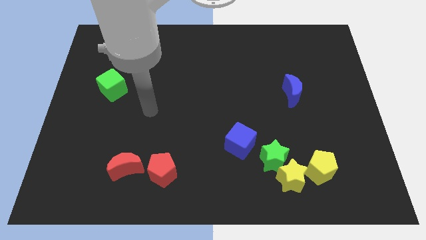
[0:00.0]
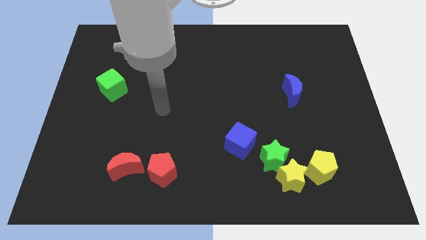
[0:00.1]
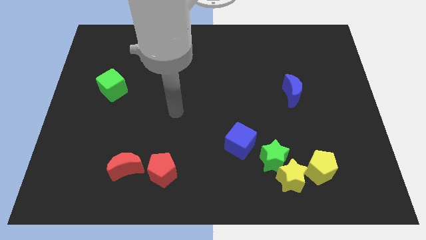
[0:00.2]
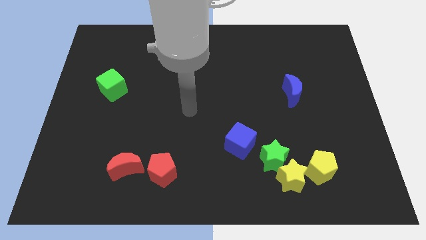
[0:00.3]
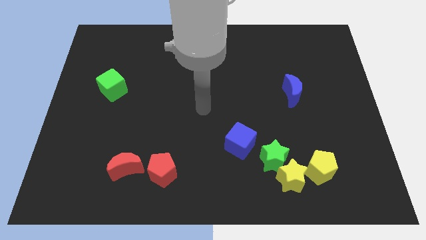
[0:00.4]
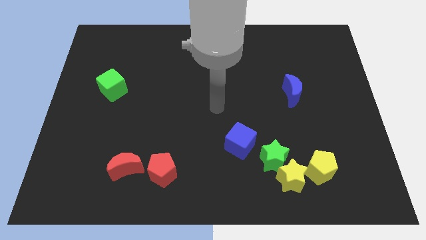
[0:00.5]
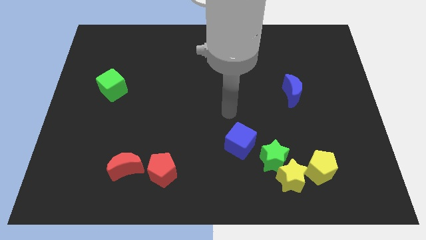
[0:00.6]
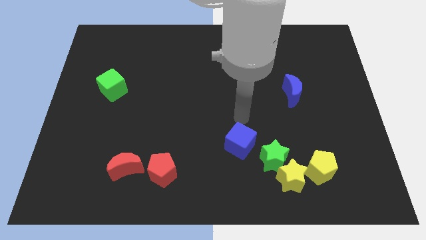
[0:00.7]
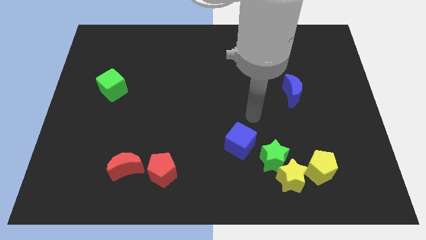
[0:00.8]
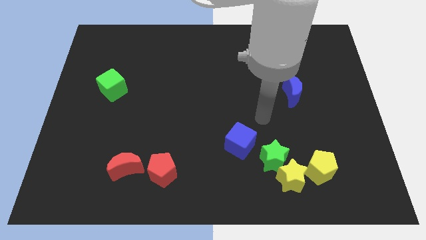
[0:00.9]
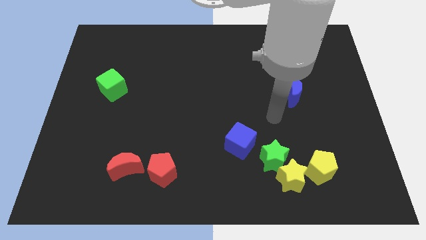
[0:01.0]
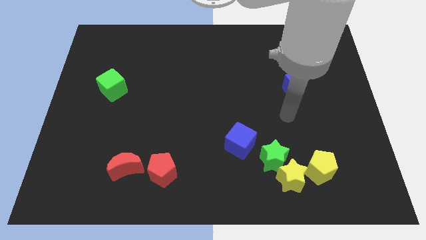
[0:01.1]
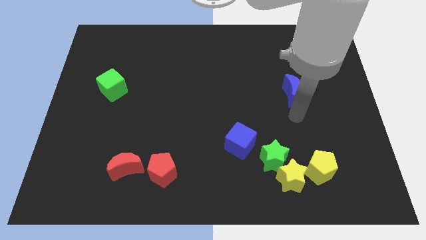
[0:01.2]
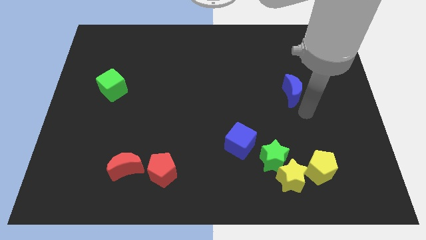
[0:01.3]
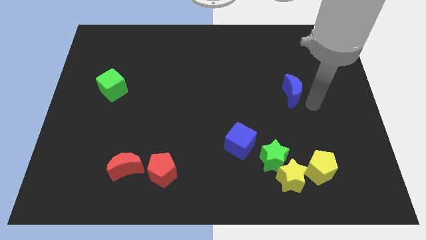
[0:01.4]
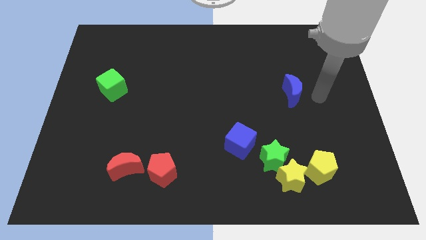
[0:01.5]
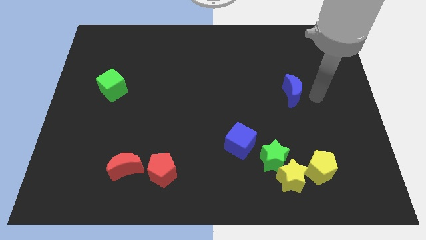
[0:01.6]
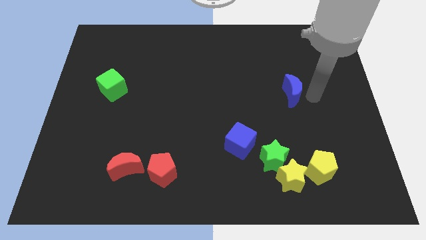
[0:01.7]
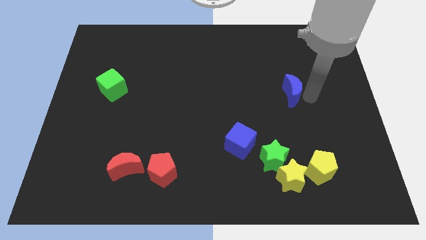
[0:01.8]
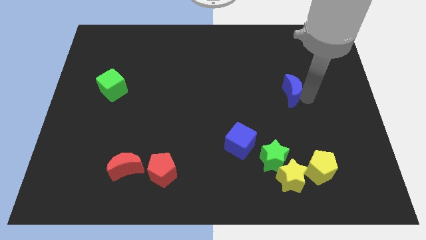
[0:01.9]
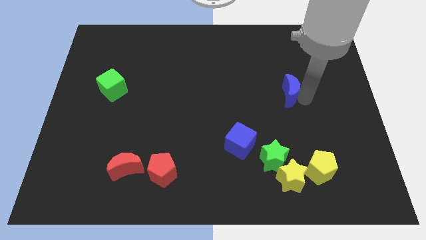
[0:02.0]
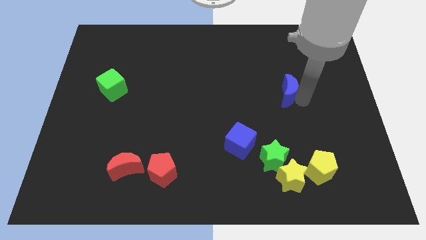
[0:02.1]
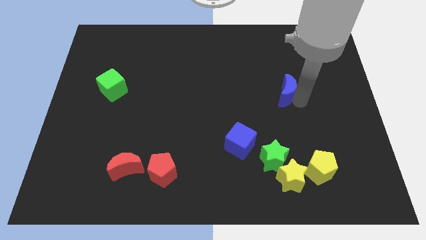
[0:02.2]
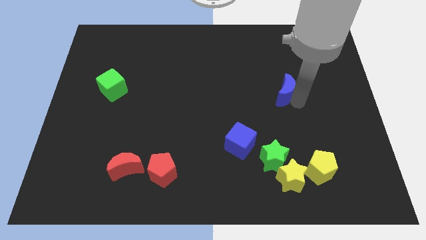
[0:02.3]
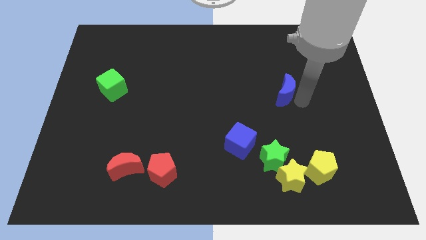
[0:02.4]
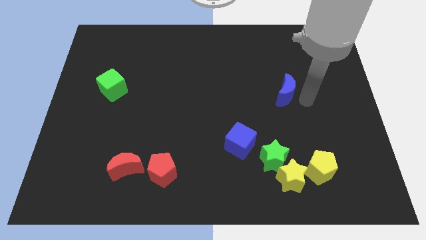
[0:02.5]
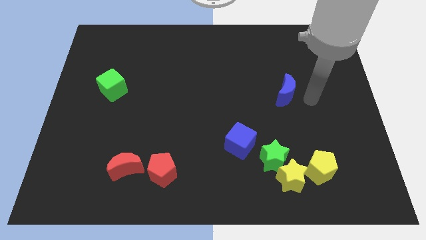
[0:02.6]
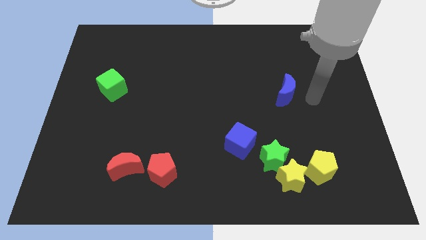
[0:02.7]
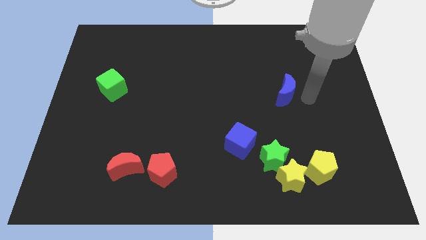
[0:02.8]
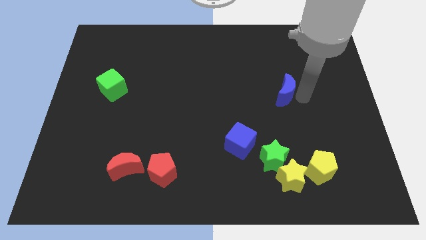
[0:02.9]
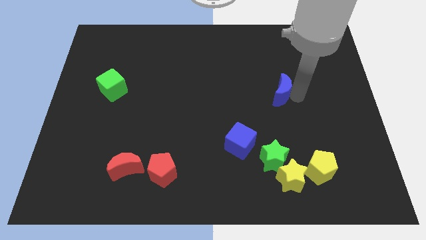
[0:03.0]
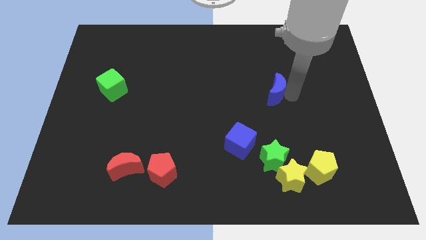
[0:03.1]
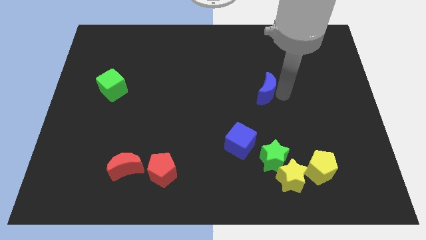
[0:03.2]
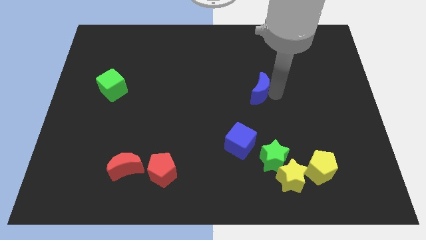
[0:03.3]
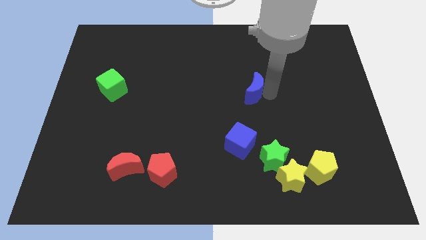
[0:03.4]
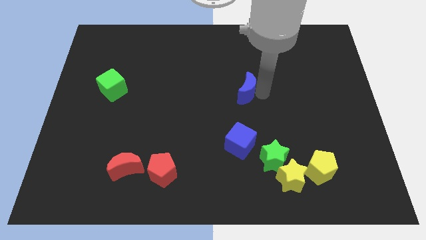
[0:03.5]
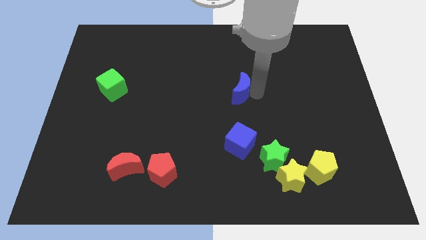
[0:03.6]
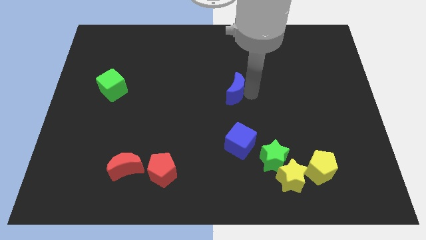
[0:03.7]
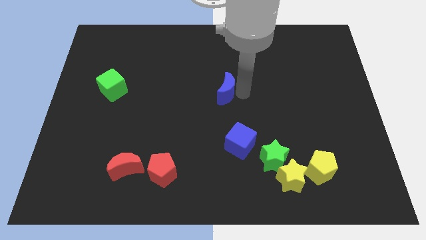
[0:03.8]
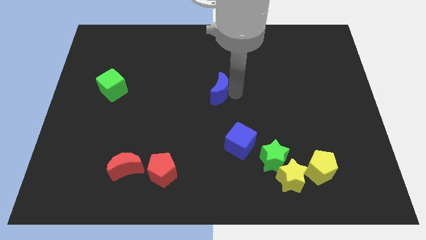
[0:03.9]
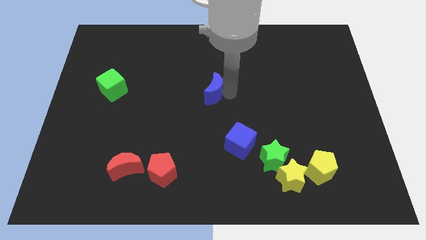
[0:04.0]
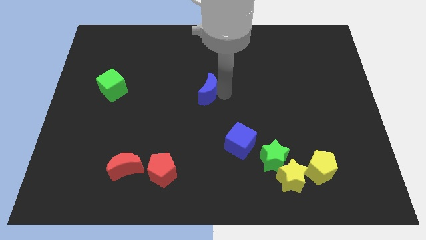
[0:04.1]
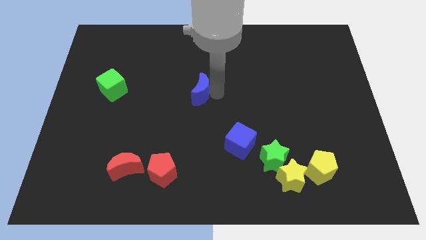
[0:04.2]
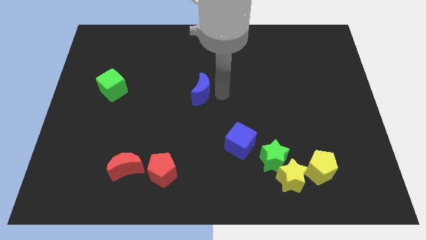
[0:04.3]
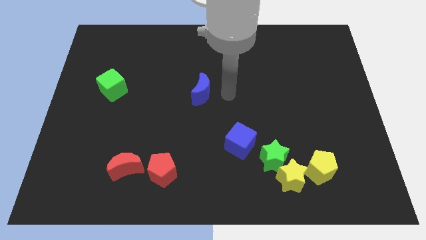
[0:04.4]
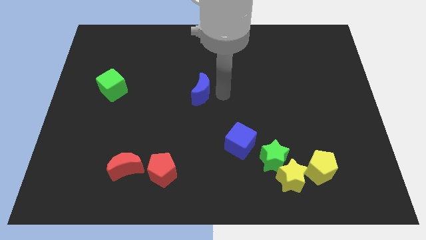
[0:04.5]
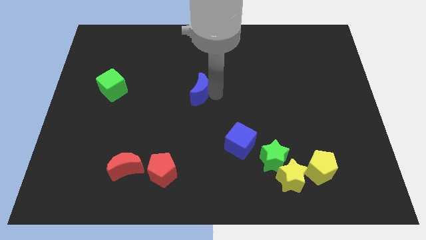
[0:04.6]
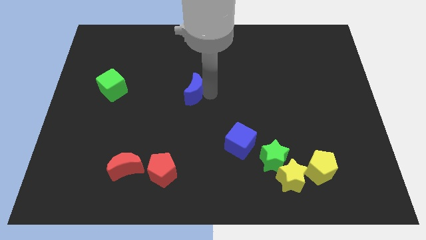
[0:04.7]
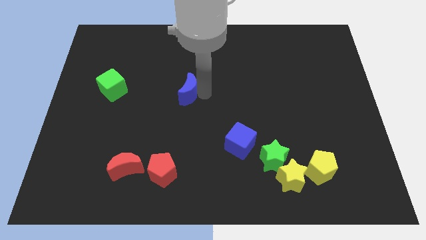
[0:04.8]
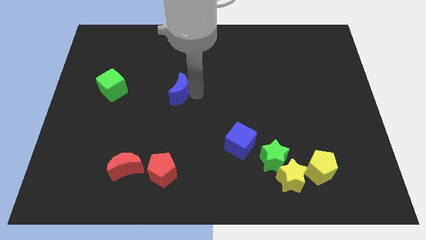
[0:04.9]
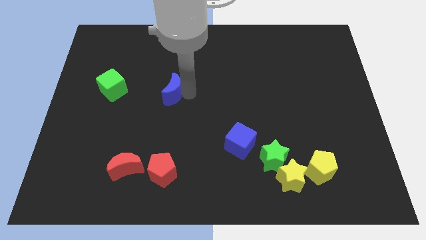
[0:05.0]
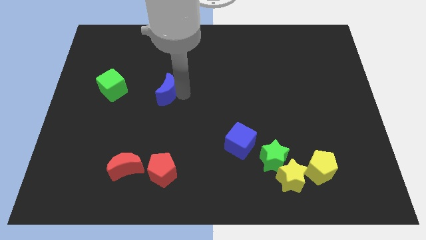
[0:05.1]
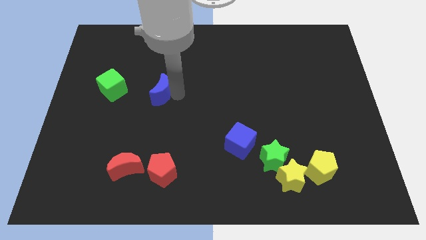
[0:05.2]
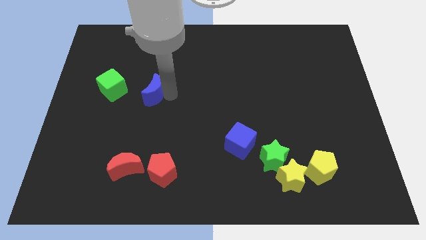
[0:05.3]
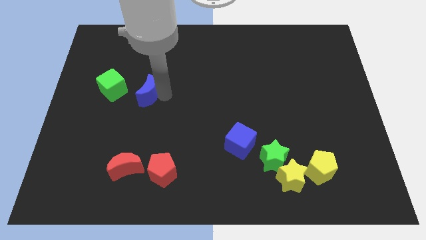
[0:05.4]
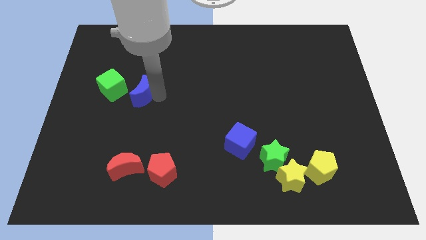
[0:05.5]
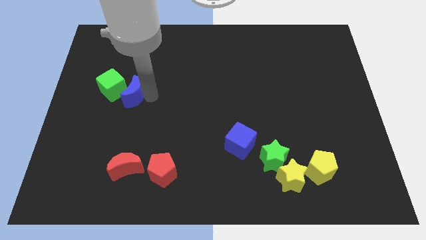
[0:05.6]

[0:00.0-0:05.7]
push the blue moon close to the green cube

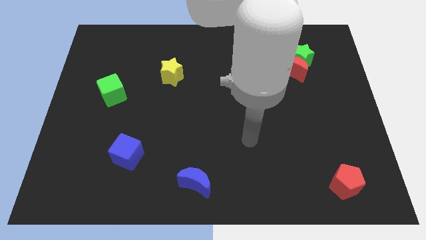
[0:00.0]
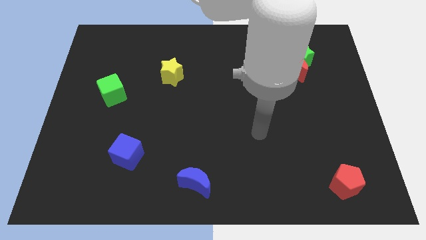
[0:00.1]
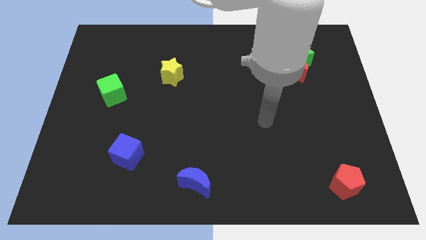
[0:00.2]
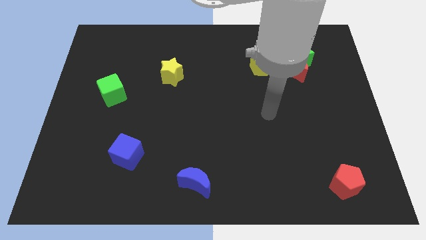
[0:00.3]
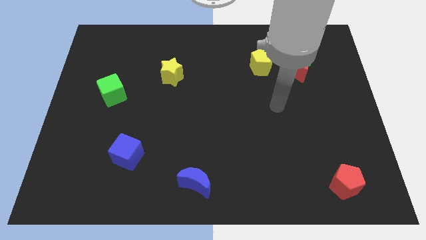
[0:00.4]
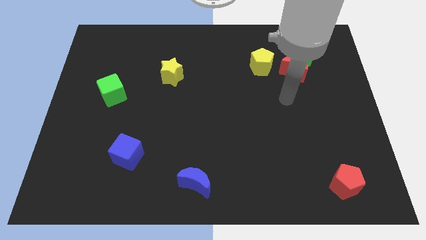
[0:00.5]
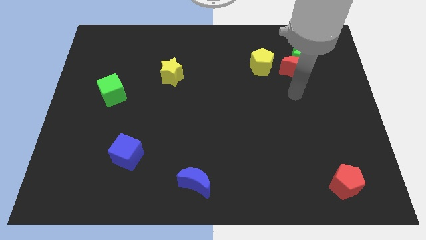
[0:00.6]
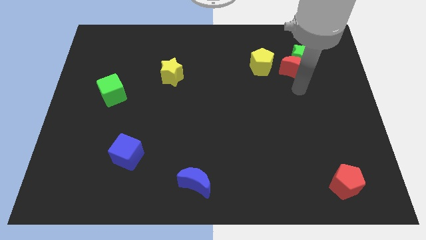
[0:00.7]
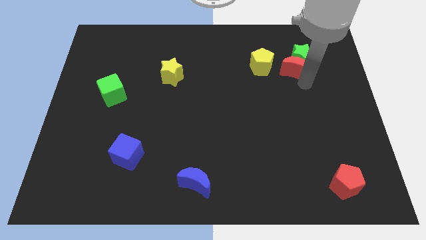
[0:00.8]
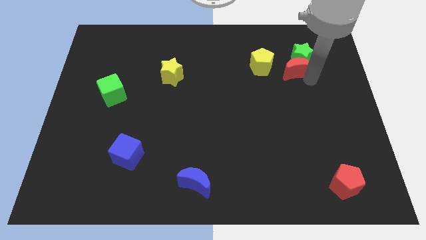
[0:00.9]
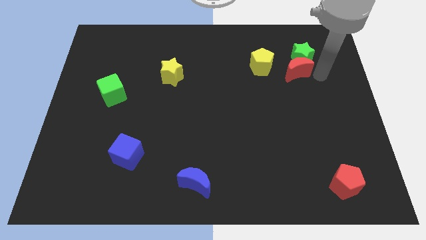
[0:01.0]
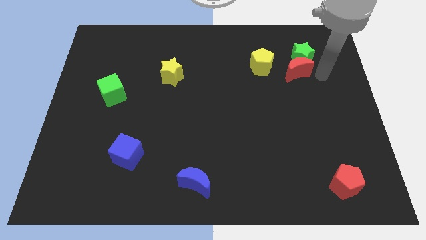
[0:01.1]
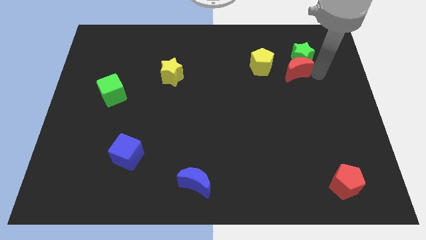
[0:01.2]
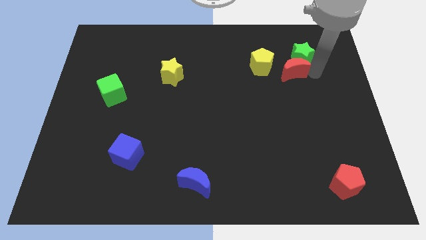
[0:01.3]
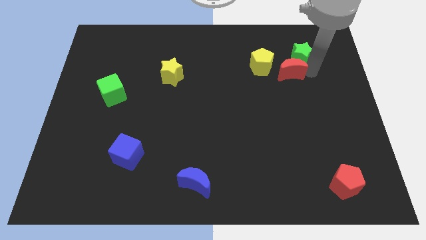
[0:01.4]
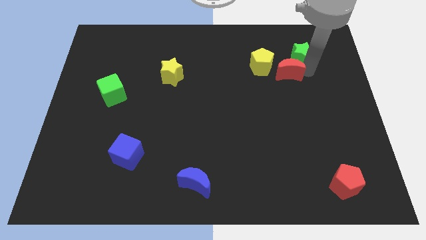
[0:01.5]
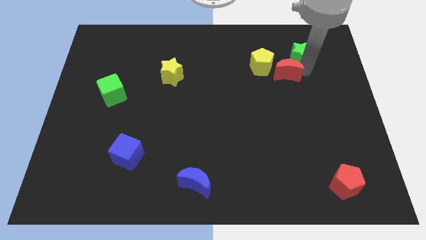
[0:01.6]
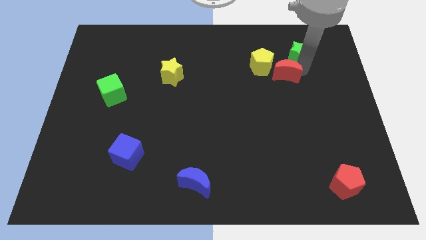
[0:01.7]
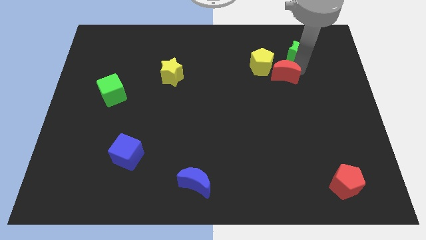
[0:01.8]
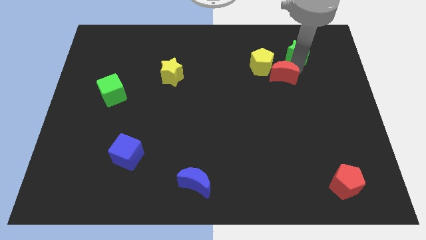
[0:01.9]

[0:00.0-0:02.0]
slide the red moon towards the yellow pentagon
